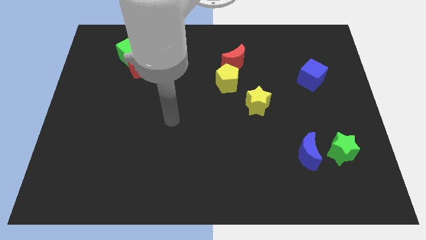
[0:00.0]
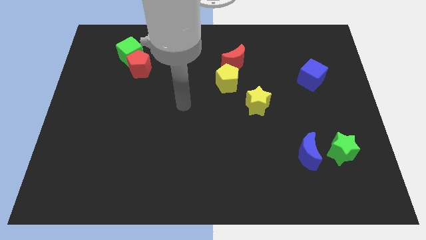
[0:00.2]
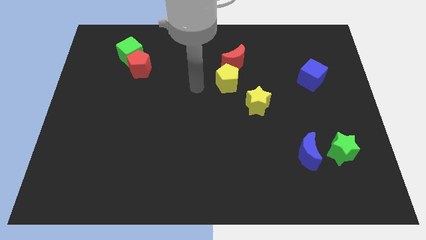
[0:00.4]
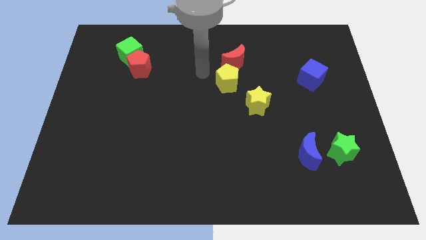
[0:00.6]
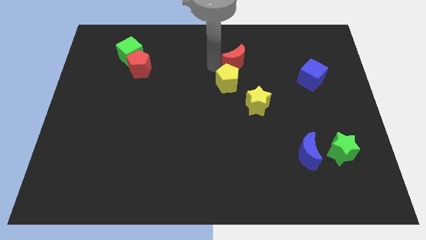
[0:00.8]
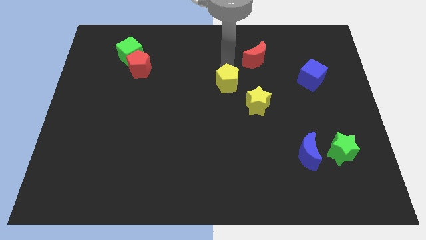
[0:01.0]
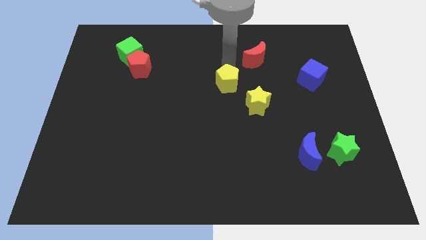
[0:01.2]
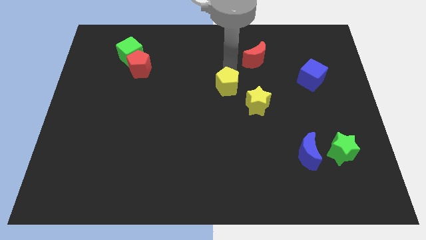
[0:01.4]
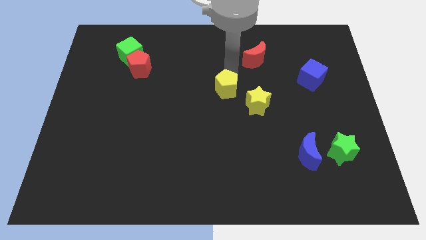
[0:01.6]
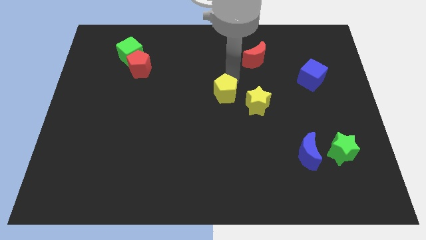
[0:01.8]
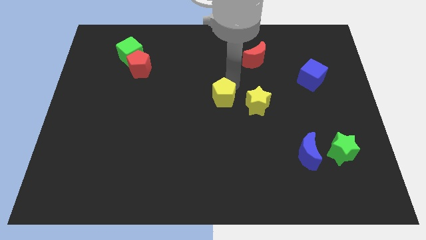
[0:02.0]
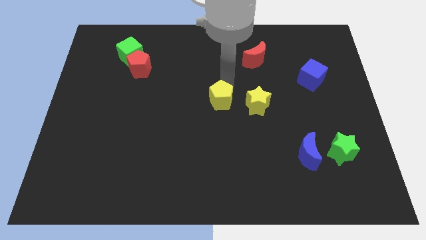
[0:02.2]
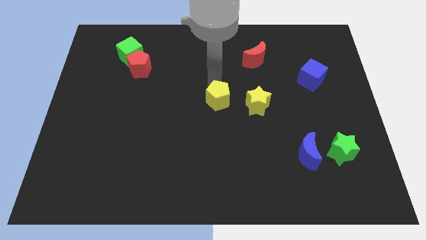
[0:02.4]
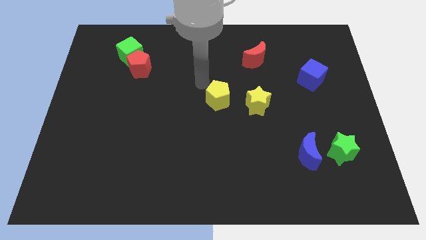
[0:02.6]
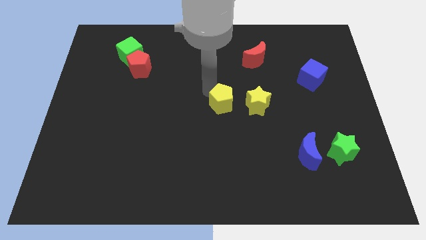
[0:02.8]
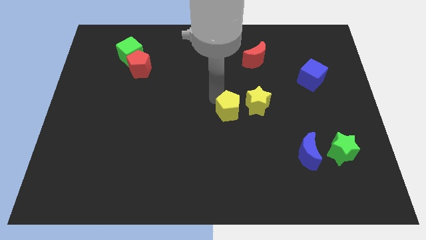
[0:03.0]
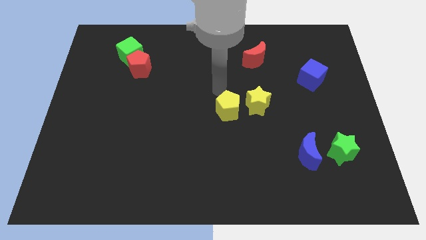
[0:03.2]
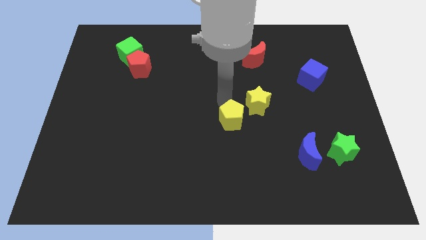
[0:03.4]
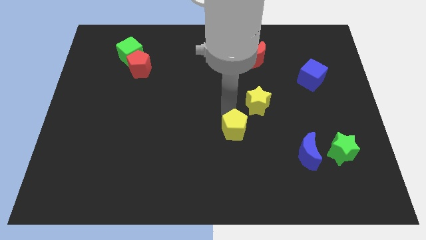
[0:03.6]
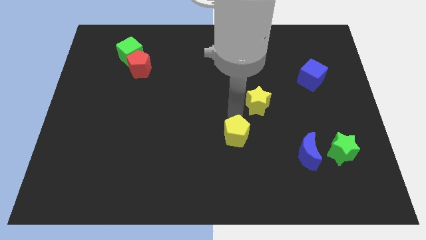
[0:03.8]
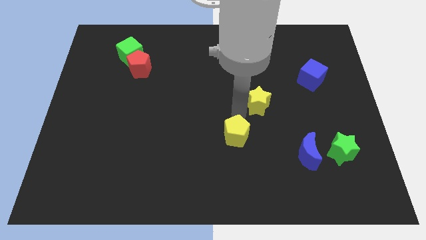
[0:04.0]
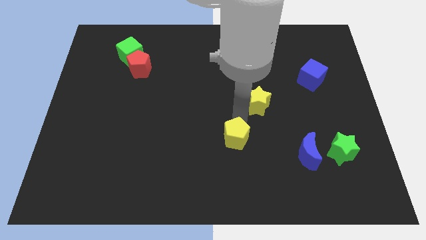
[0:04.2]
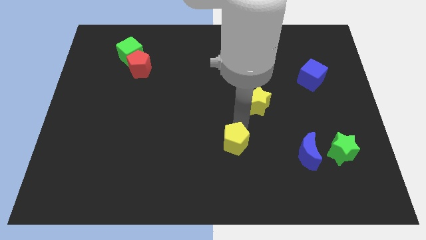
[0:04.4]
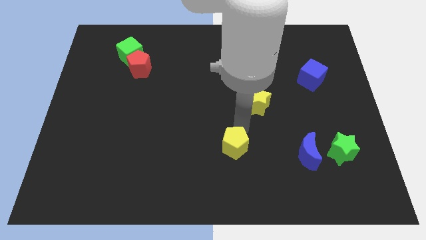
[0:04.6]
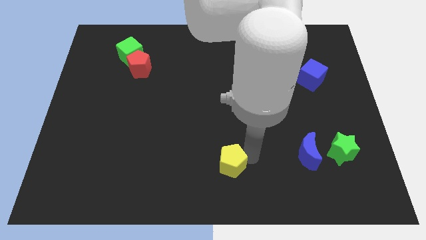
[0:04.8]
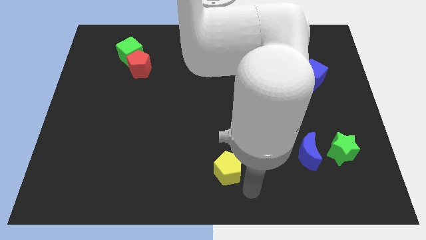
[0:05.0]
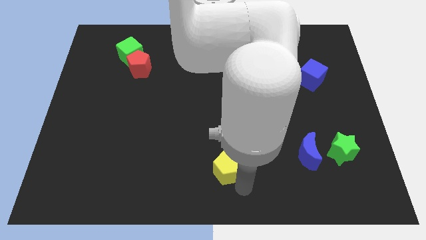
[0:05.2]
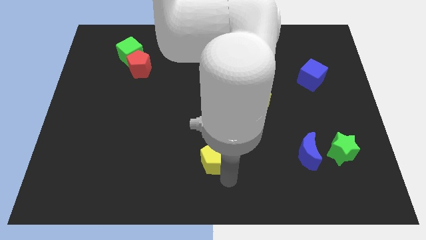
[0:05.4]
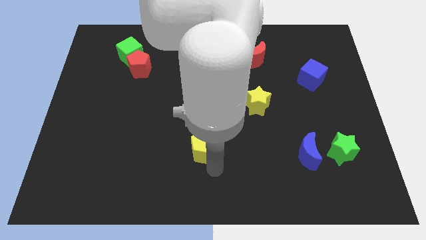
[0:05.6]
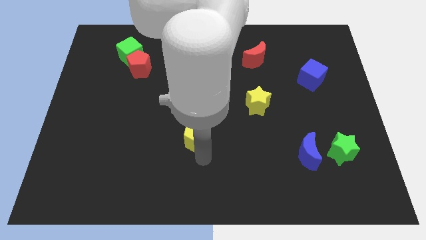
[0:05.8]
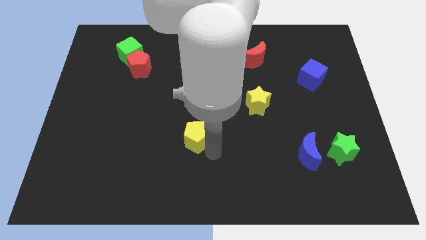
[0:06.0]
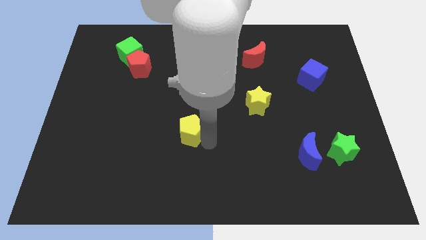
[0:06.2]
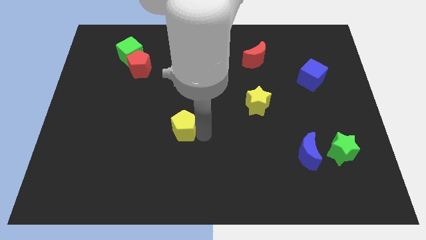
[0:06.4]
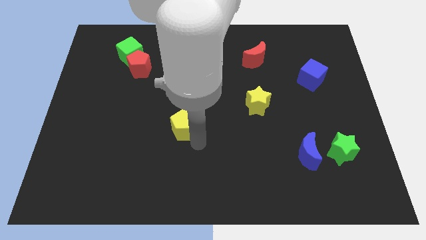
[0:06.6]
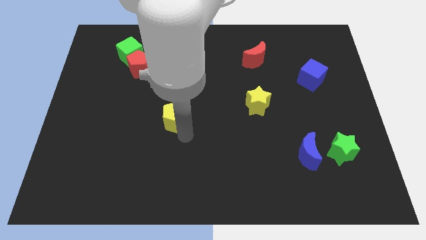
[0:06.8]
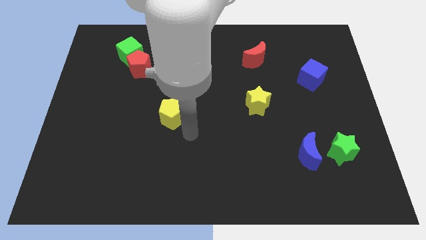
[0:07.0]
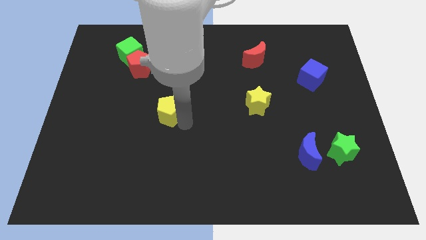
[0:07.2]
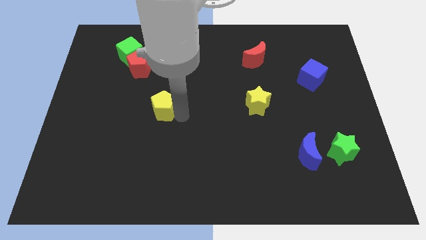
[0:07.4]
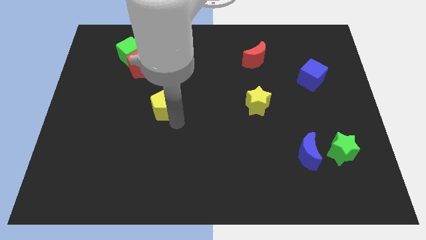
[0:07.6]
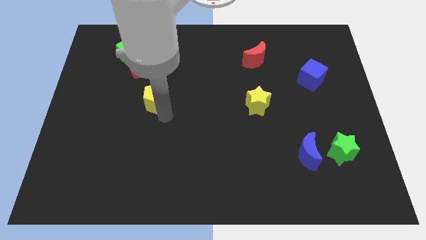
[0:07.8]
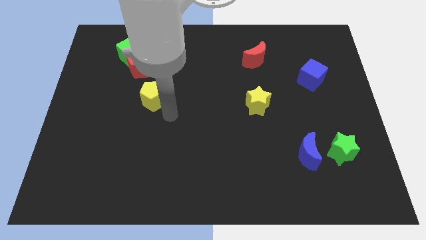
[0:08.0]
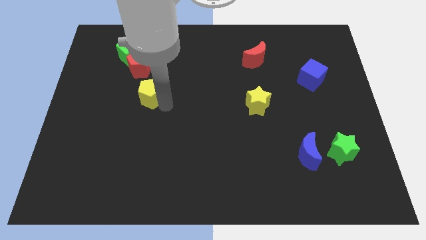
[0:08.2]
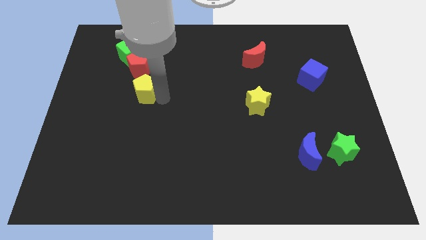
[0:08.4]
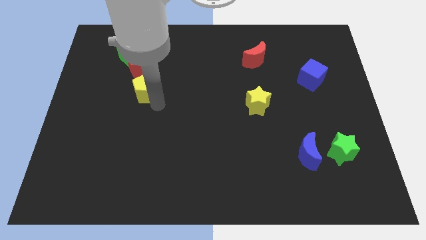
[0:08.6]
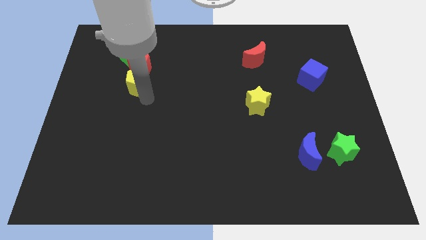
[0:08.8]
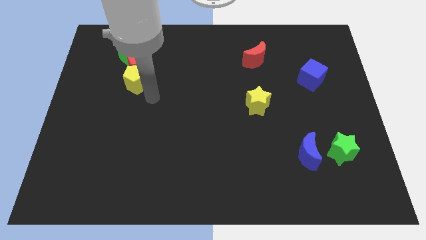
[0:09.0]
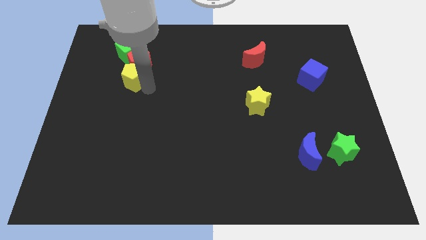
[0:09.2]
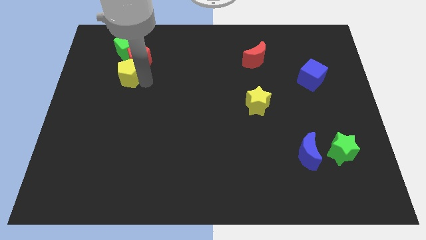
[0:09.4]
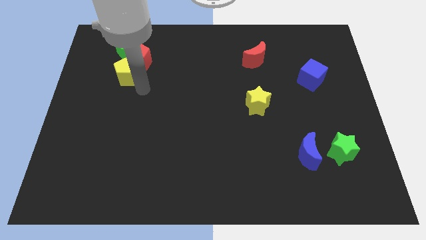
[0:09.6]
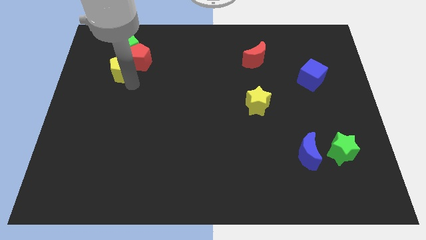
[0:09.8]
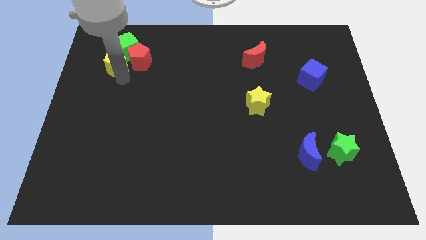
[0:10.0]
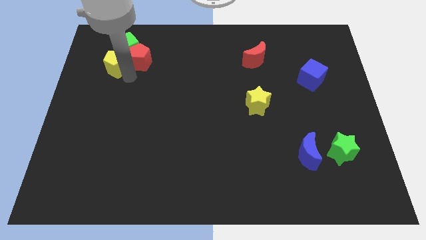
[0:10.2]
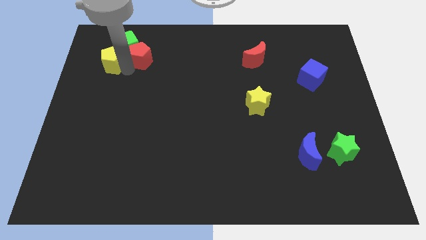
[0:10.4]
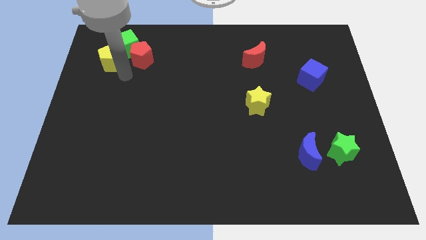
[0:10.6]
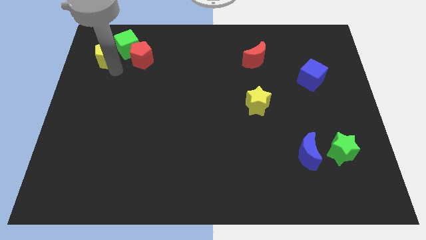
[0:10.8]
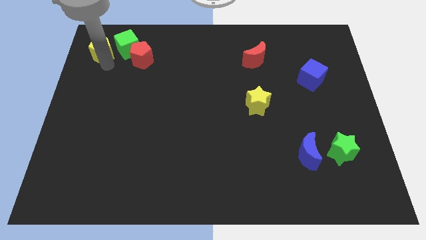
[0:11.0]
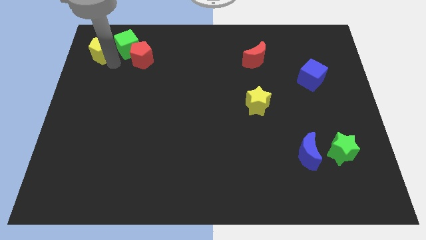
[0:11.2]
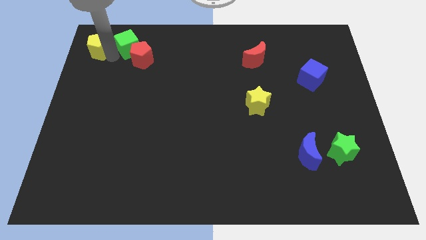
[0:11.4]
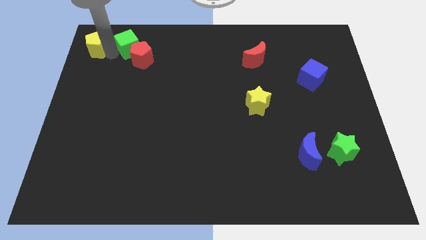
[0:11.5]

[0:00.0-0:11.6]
slide the yellow pentagon to the top left
